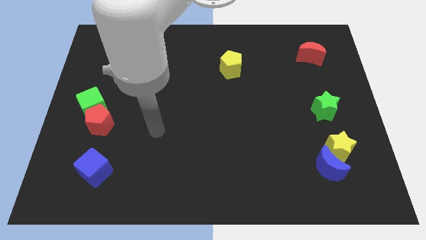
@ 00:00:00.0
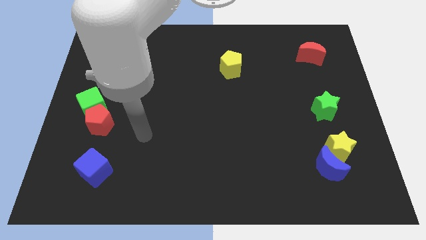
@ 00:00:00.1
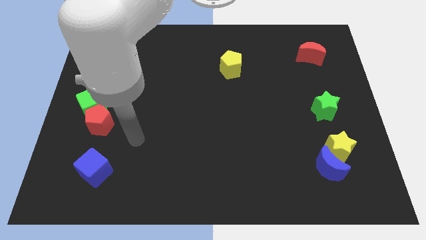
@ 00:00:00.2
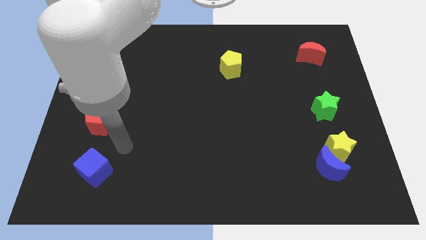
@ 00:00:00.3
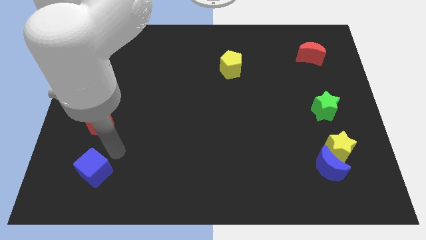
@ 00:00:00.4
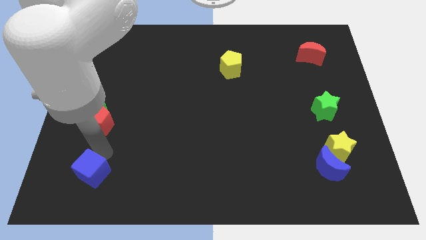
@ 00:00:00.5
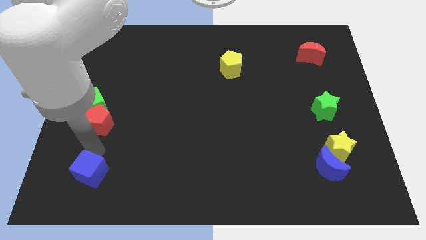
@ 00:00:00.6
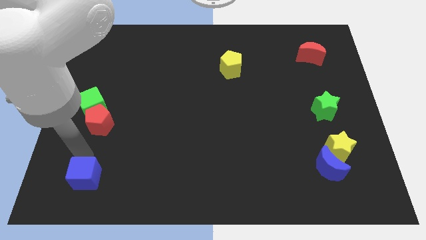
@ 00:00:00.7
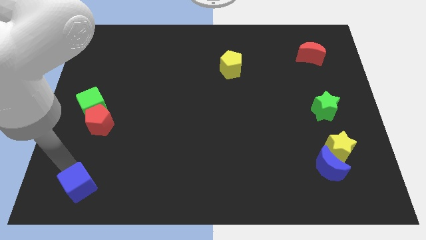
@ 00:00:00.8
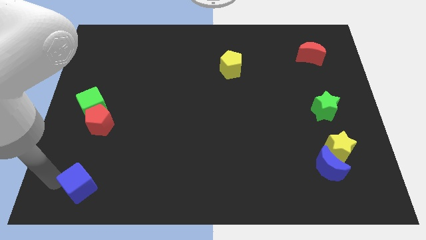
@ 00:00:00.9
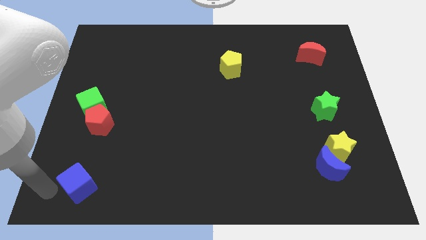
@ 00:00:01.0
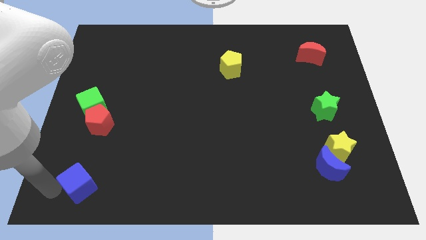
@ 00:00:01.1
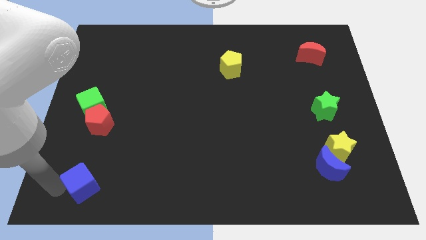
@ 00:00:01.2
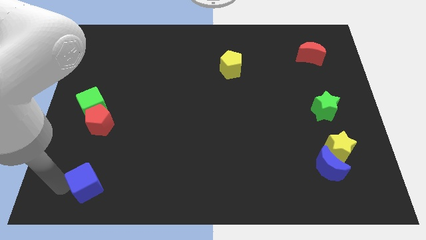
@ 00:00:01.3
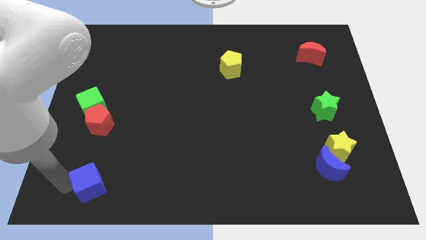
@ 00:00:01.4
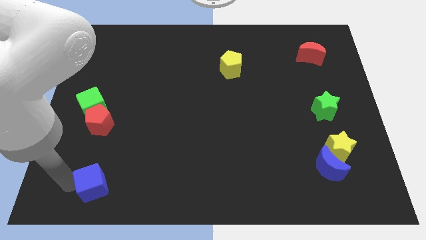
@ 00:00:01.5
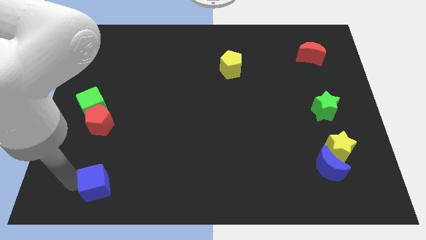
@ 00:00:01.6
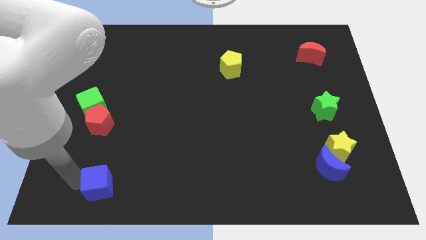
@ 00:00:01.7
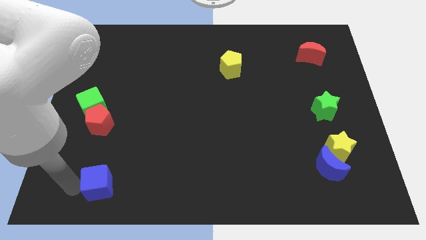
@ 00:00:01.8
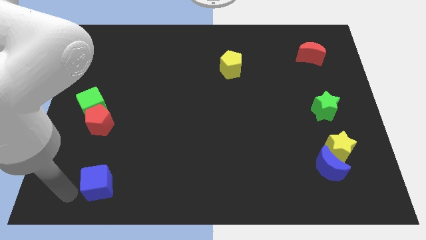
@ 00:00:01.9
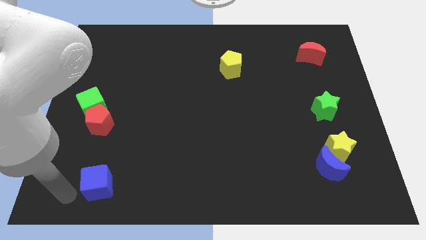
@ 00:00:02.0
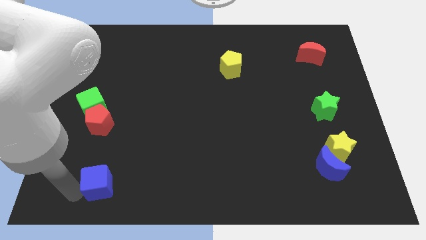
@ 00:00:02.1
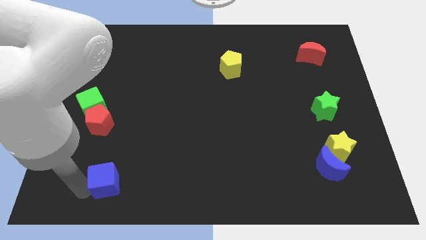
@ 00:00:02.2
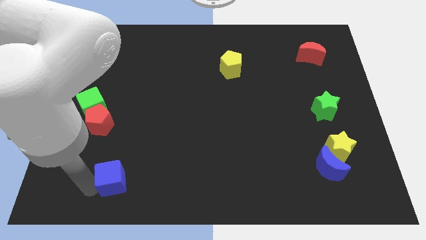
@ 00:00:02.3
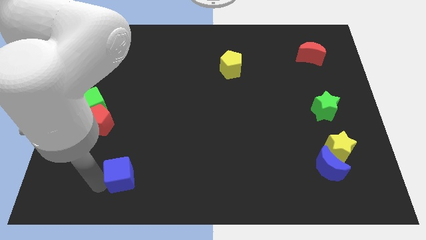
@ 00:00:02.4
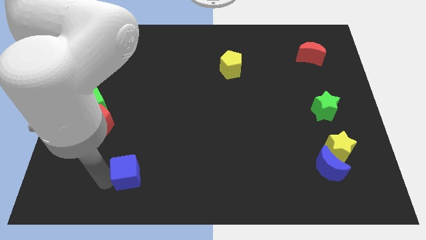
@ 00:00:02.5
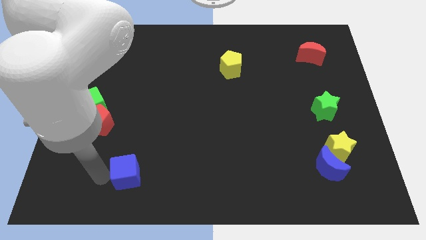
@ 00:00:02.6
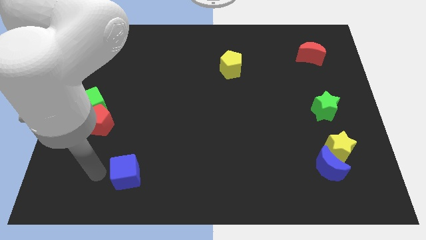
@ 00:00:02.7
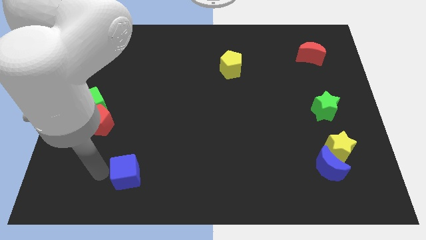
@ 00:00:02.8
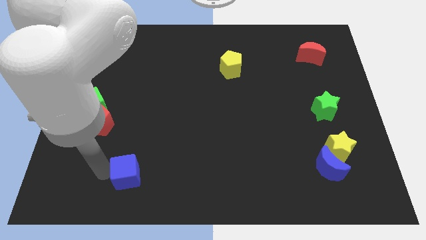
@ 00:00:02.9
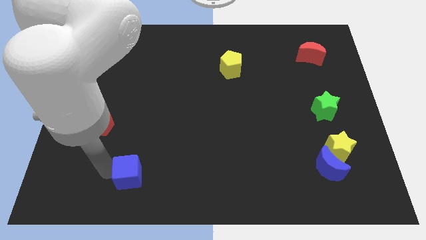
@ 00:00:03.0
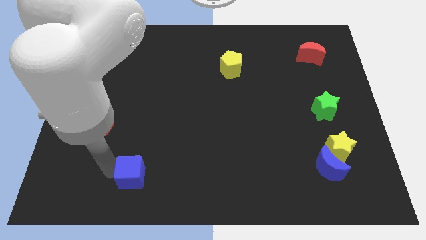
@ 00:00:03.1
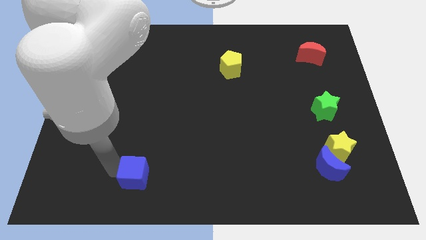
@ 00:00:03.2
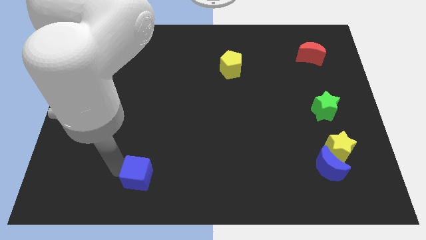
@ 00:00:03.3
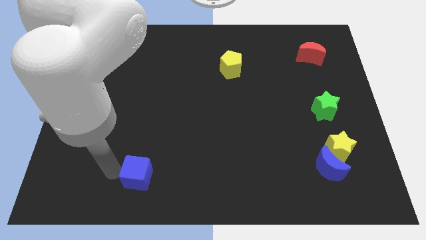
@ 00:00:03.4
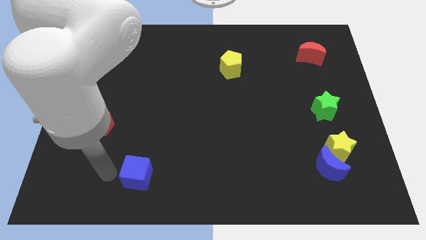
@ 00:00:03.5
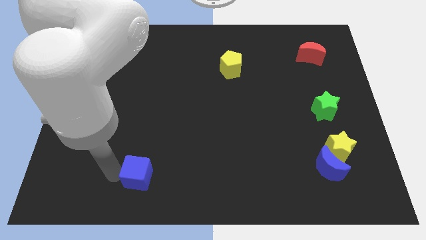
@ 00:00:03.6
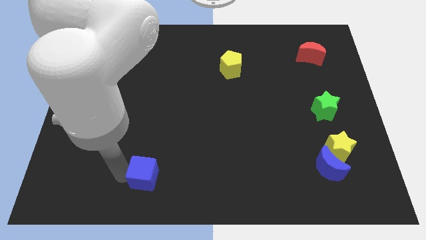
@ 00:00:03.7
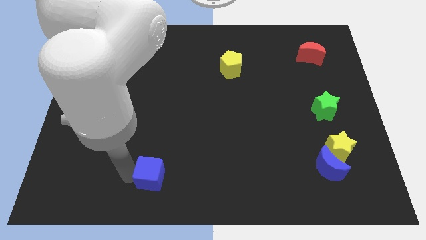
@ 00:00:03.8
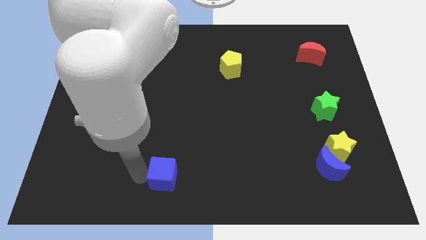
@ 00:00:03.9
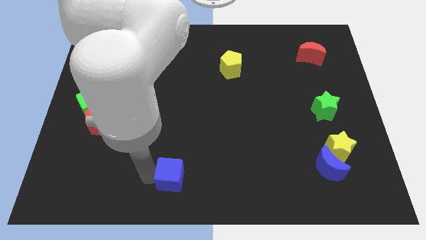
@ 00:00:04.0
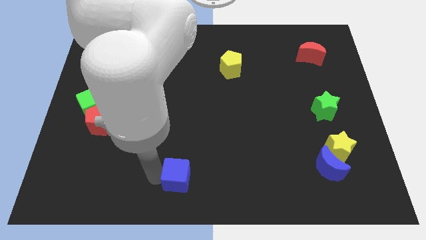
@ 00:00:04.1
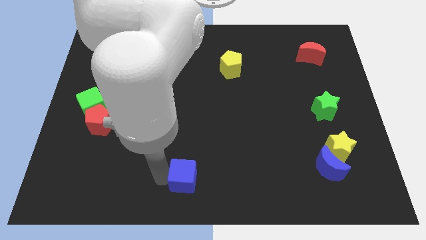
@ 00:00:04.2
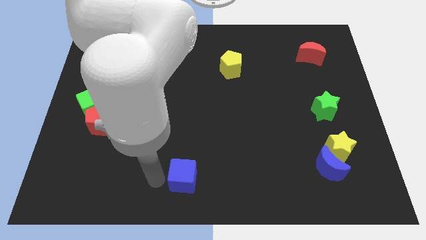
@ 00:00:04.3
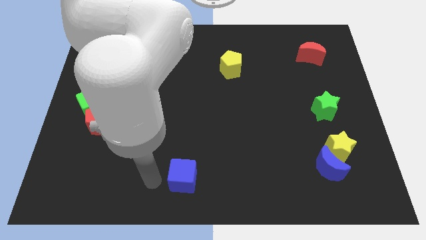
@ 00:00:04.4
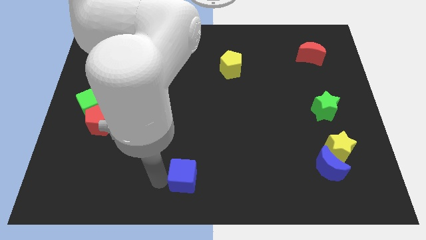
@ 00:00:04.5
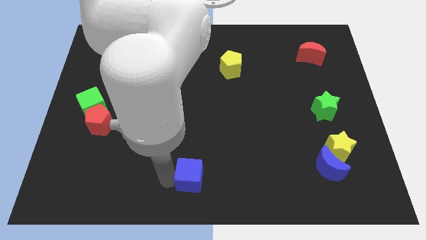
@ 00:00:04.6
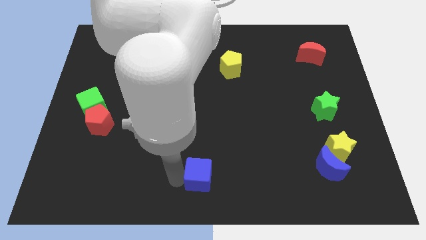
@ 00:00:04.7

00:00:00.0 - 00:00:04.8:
push the blue cube to the right

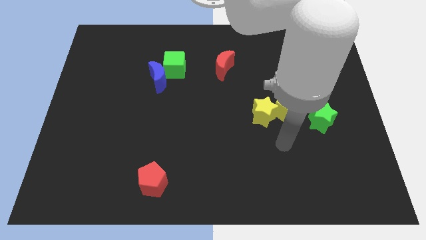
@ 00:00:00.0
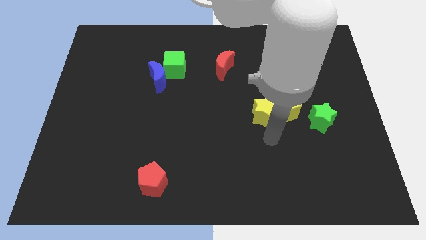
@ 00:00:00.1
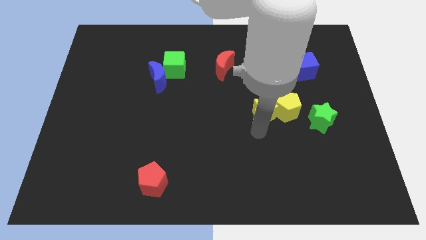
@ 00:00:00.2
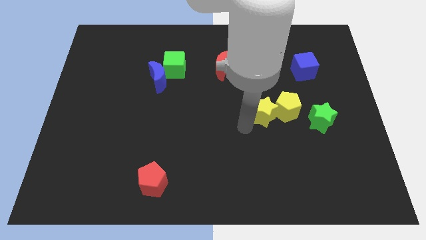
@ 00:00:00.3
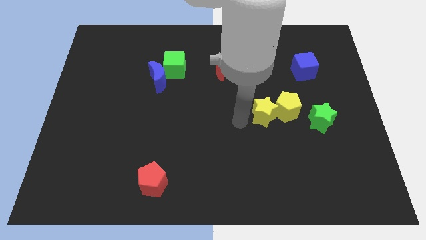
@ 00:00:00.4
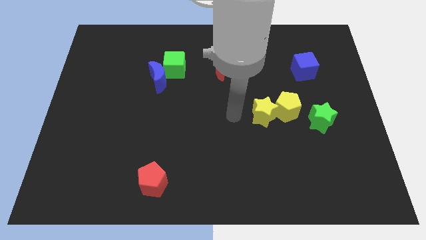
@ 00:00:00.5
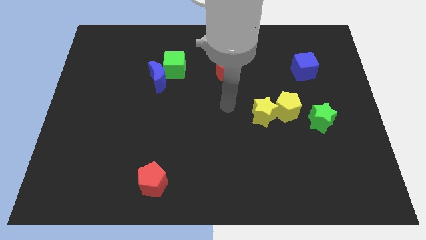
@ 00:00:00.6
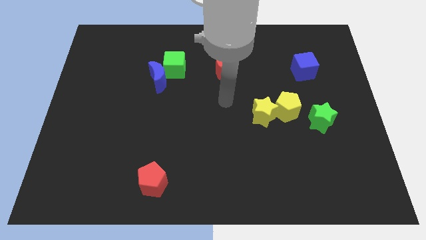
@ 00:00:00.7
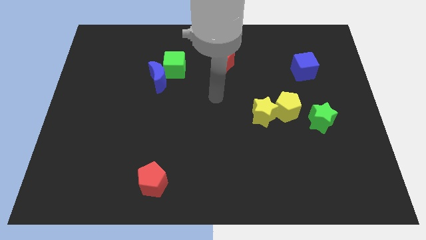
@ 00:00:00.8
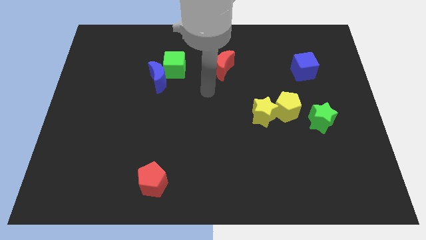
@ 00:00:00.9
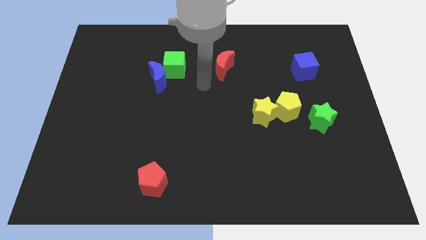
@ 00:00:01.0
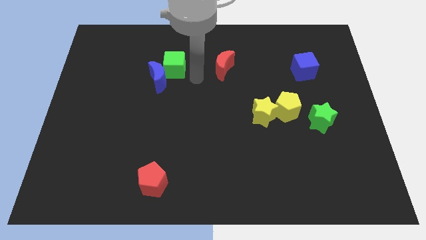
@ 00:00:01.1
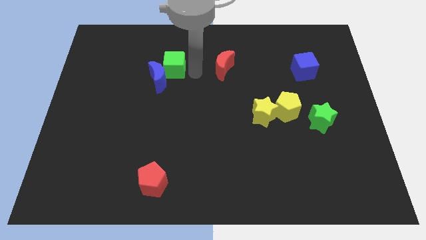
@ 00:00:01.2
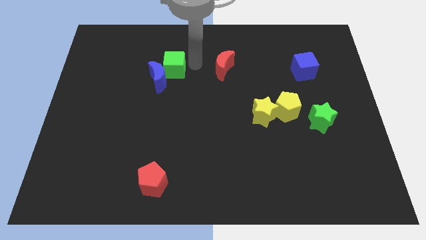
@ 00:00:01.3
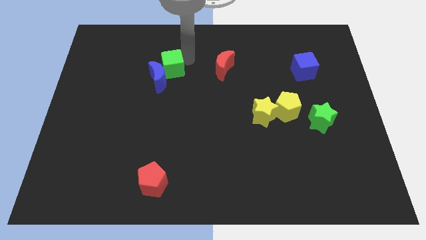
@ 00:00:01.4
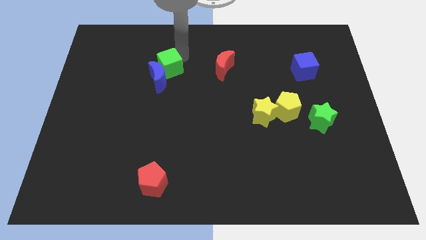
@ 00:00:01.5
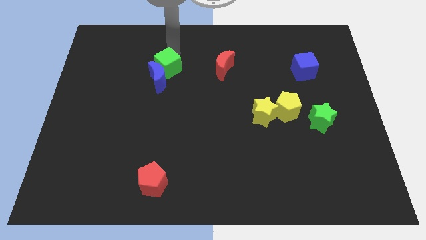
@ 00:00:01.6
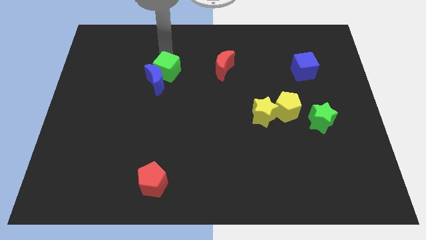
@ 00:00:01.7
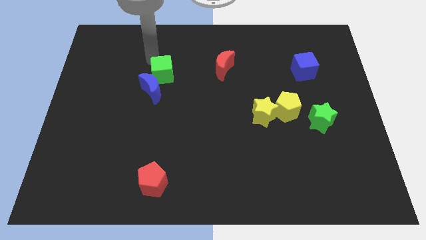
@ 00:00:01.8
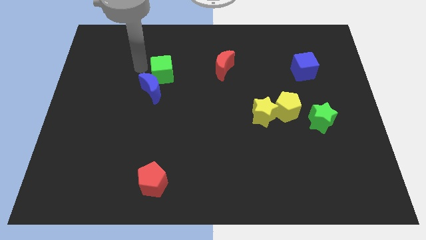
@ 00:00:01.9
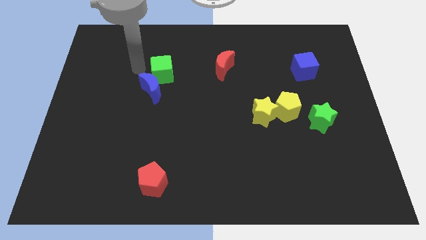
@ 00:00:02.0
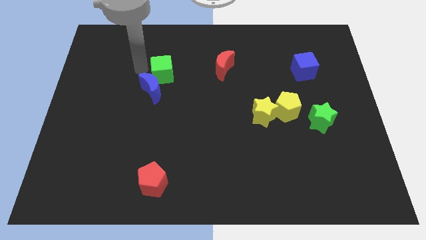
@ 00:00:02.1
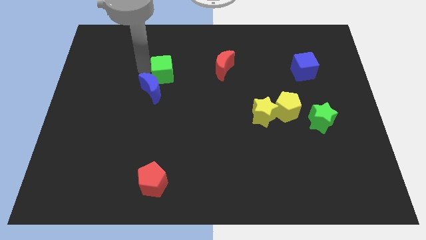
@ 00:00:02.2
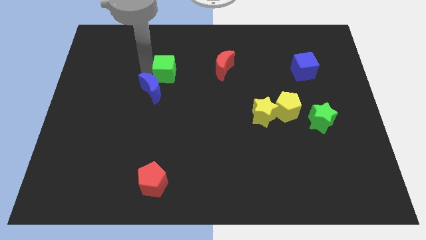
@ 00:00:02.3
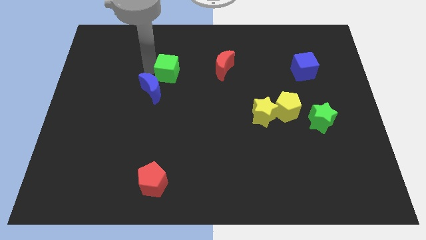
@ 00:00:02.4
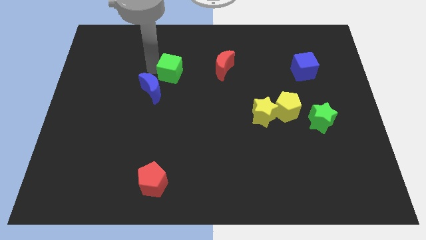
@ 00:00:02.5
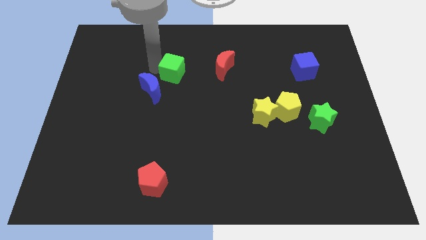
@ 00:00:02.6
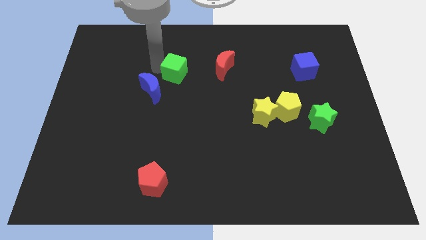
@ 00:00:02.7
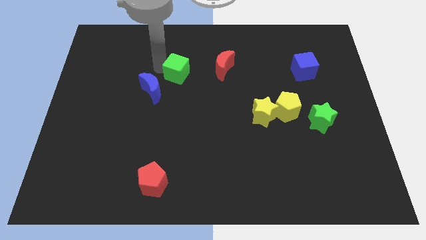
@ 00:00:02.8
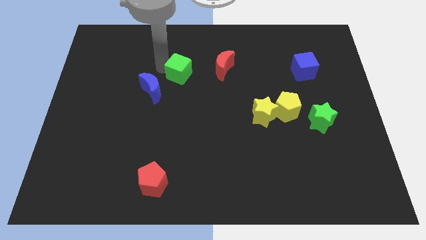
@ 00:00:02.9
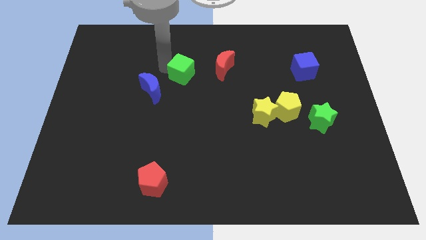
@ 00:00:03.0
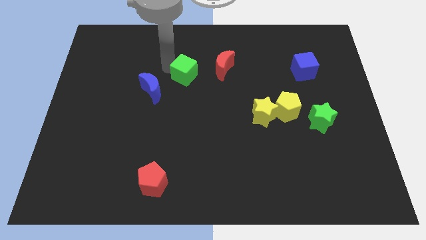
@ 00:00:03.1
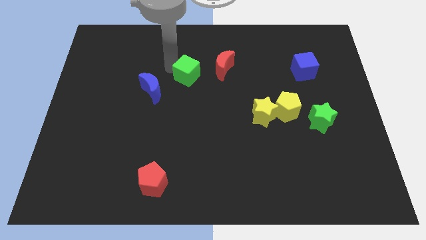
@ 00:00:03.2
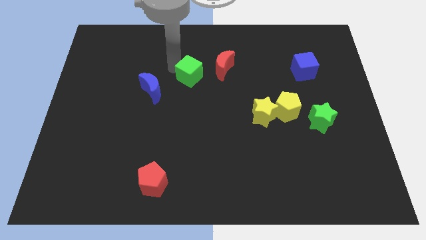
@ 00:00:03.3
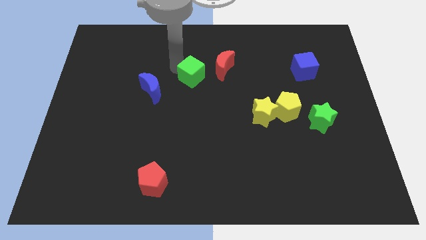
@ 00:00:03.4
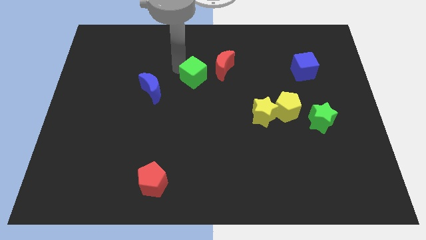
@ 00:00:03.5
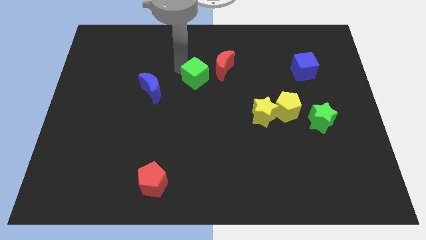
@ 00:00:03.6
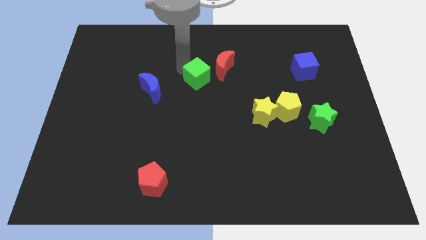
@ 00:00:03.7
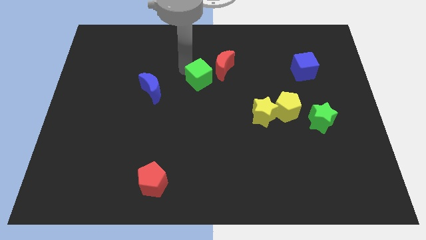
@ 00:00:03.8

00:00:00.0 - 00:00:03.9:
slide the green cube slightly diagonally downwards and right
